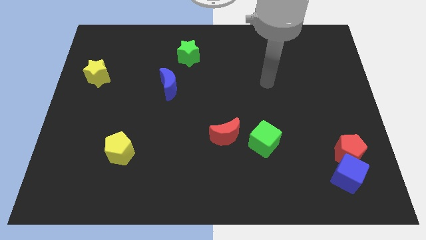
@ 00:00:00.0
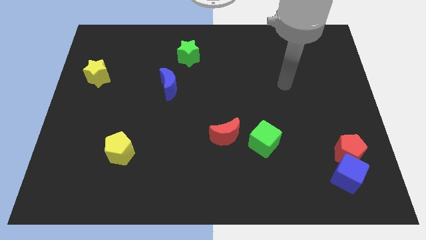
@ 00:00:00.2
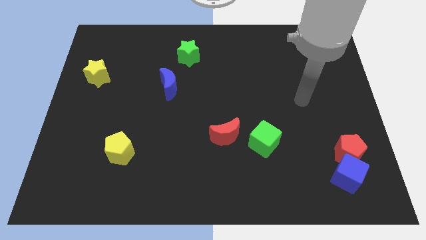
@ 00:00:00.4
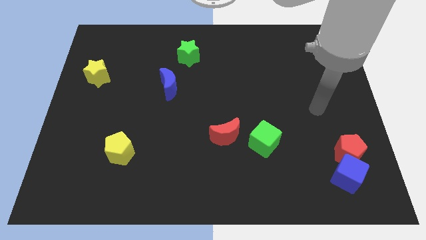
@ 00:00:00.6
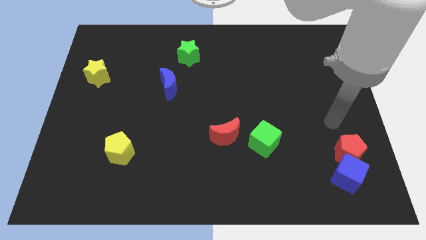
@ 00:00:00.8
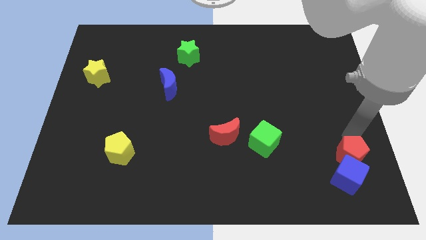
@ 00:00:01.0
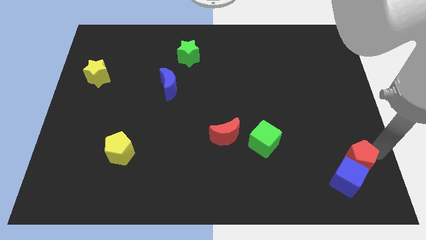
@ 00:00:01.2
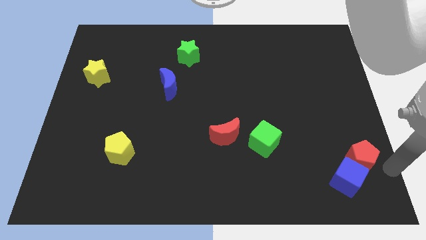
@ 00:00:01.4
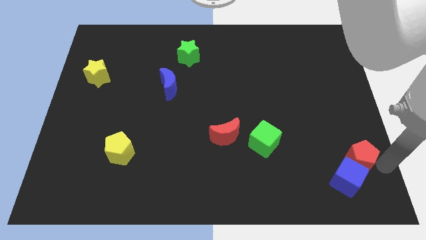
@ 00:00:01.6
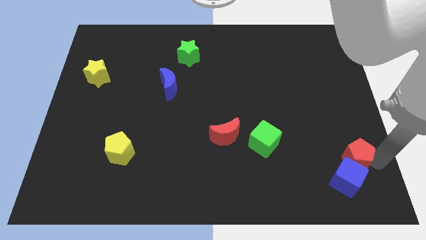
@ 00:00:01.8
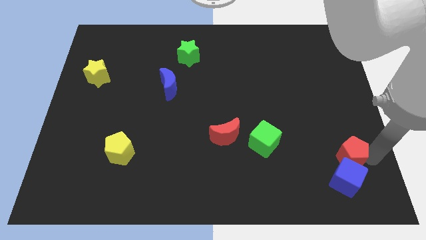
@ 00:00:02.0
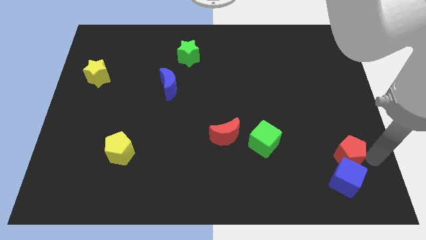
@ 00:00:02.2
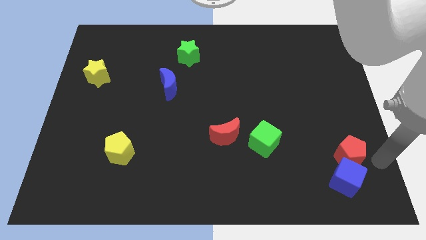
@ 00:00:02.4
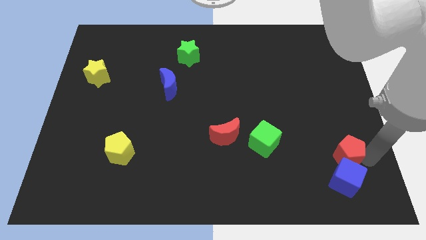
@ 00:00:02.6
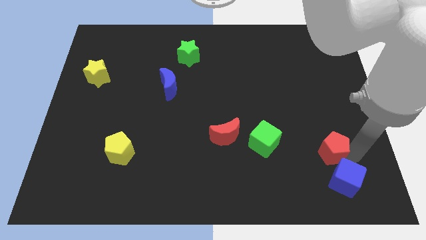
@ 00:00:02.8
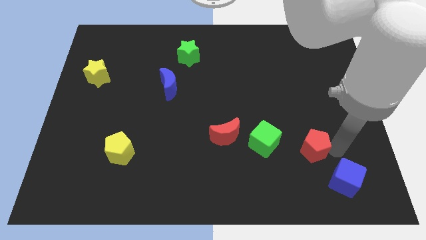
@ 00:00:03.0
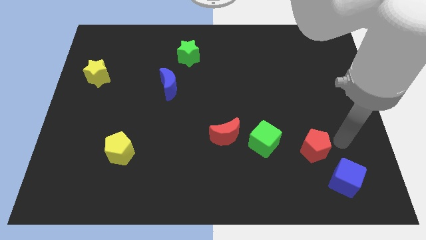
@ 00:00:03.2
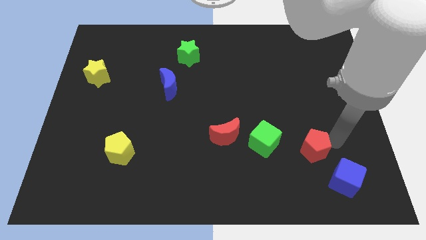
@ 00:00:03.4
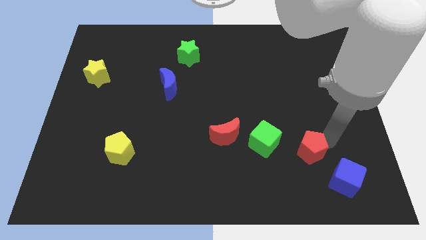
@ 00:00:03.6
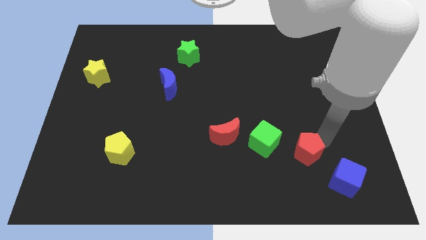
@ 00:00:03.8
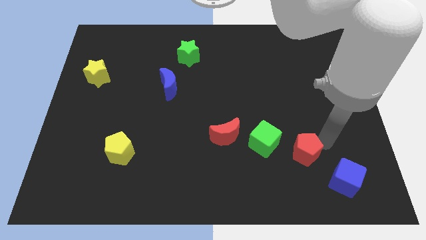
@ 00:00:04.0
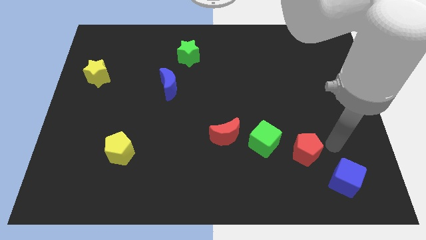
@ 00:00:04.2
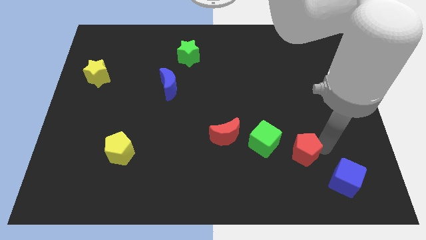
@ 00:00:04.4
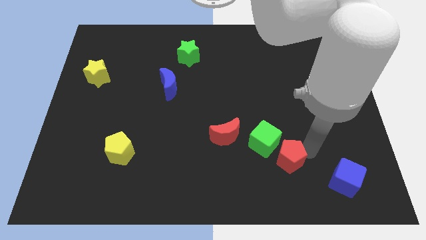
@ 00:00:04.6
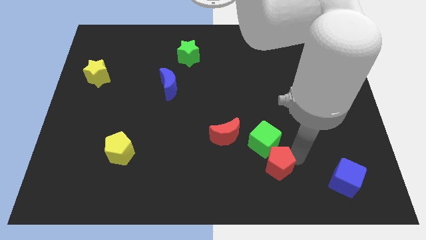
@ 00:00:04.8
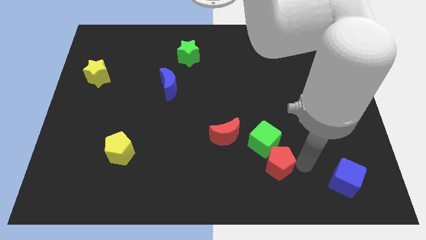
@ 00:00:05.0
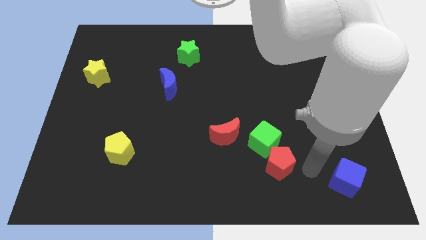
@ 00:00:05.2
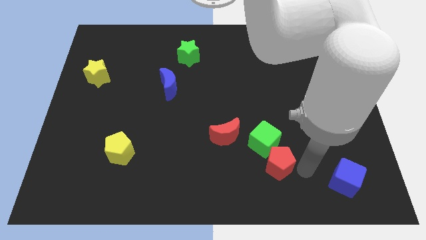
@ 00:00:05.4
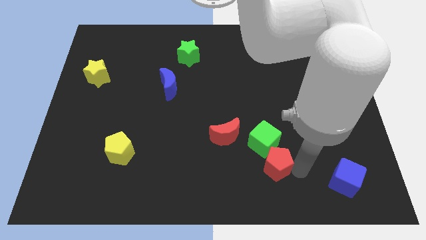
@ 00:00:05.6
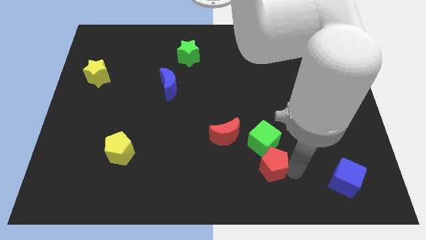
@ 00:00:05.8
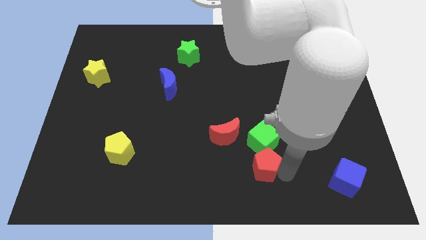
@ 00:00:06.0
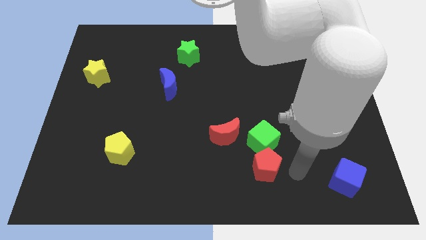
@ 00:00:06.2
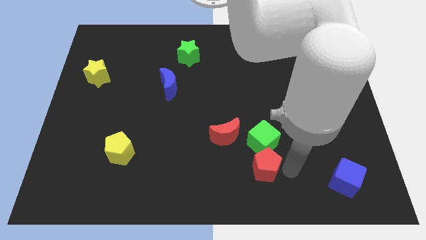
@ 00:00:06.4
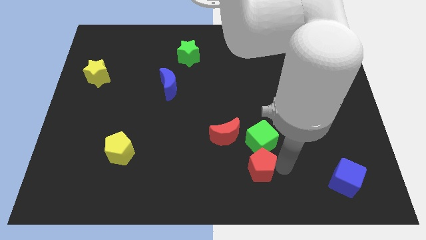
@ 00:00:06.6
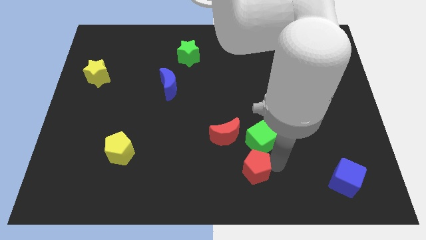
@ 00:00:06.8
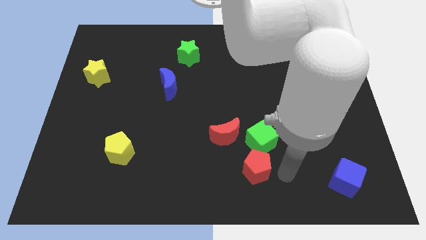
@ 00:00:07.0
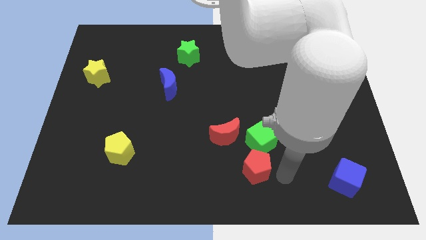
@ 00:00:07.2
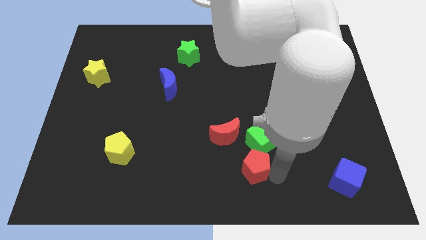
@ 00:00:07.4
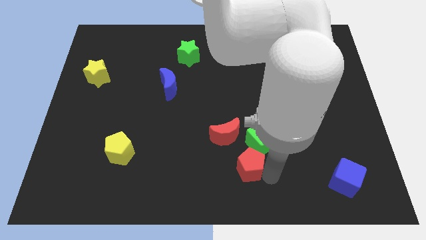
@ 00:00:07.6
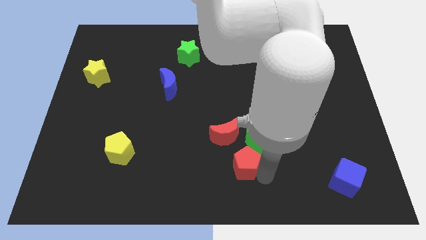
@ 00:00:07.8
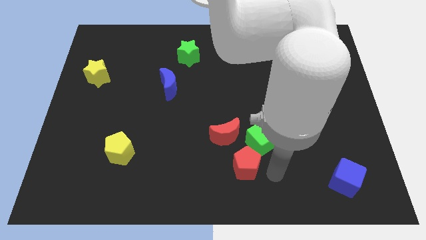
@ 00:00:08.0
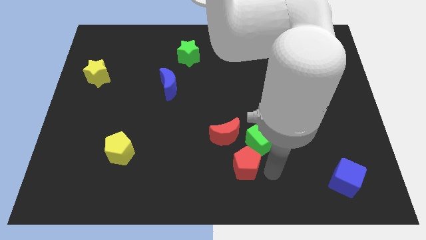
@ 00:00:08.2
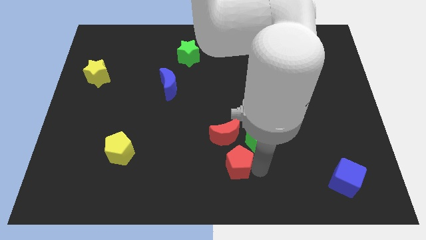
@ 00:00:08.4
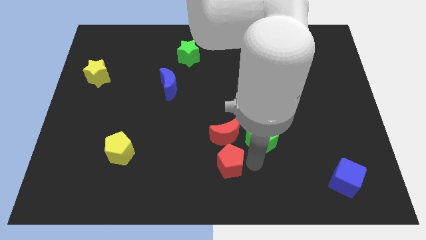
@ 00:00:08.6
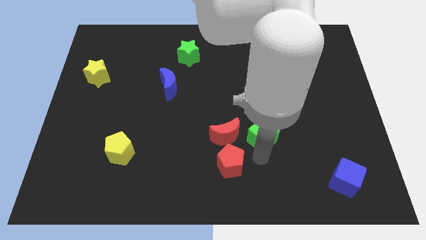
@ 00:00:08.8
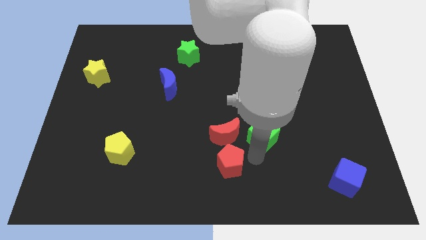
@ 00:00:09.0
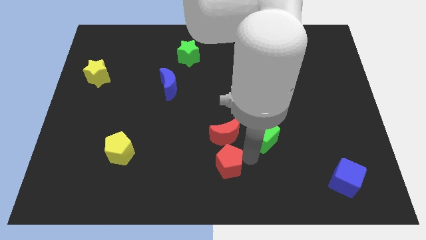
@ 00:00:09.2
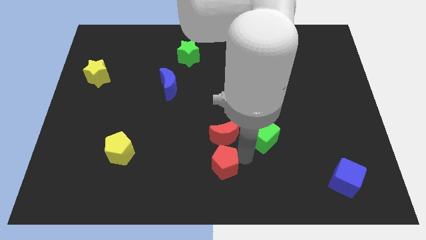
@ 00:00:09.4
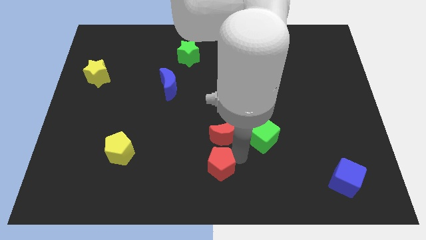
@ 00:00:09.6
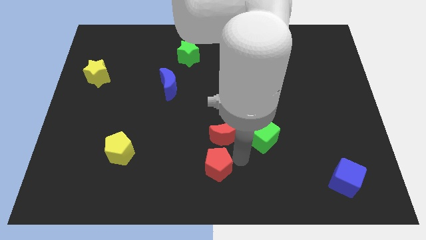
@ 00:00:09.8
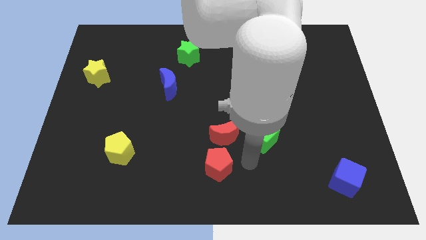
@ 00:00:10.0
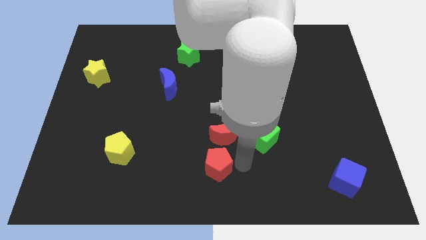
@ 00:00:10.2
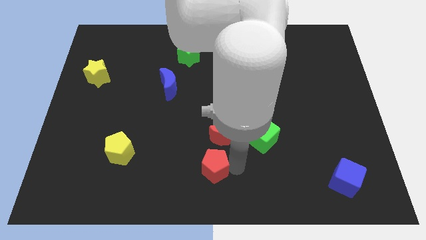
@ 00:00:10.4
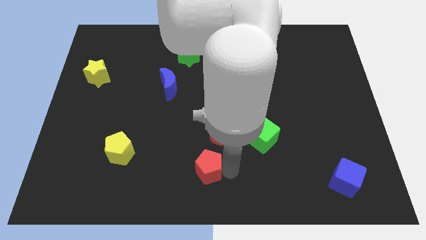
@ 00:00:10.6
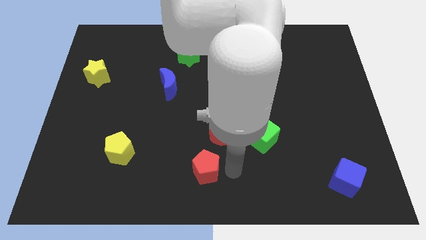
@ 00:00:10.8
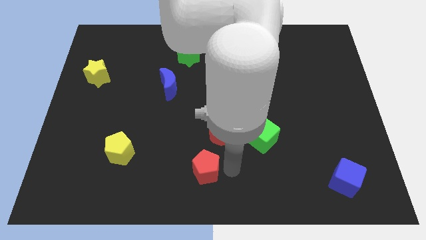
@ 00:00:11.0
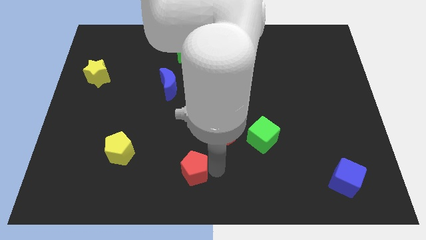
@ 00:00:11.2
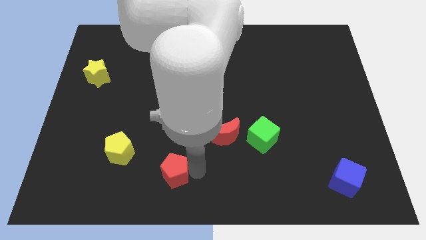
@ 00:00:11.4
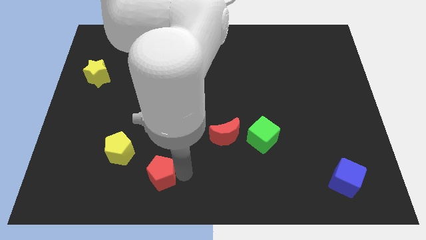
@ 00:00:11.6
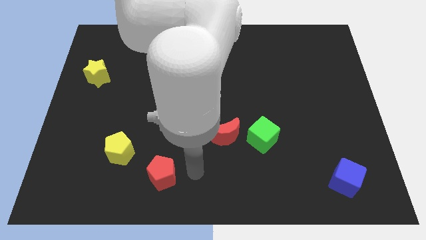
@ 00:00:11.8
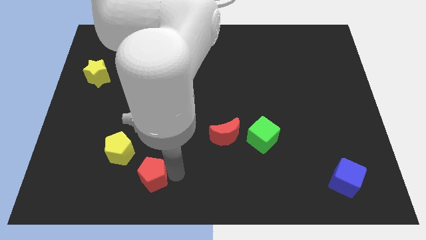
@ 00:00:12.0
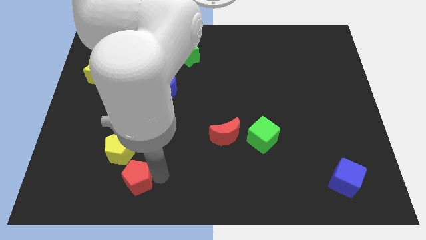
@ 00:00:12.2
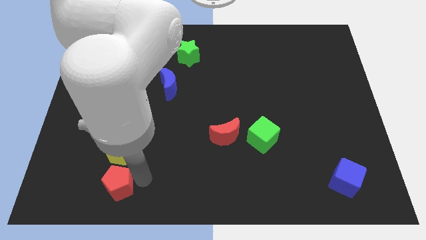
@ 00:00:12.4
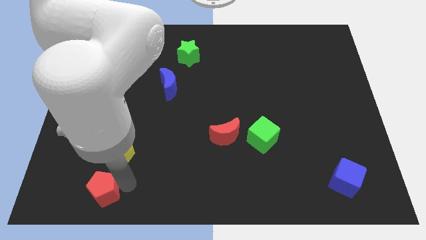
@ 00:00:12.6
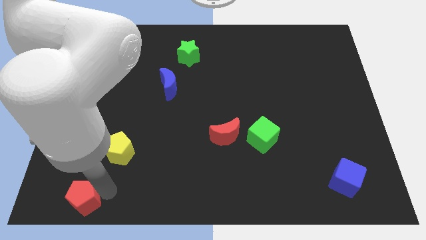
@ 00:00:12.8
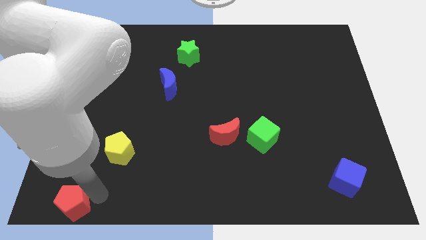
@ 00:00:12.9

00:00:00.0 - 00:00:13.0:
move the red pentagon to the bottom left of the board

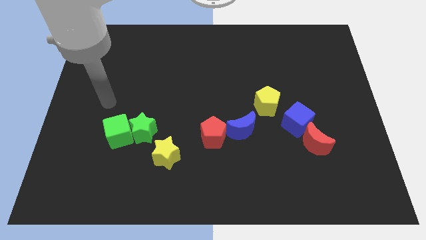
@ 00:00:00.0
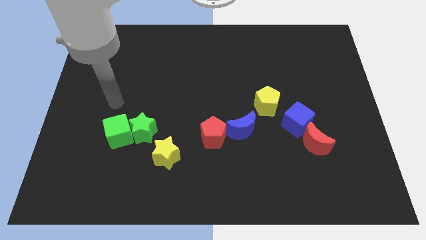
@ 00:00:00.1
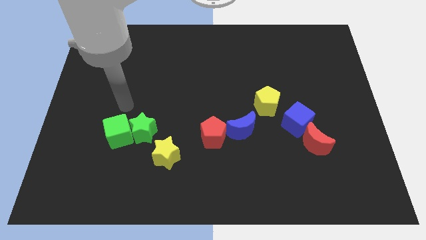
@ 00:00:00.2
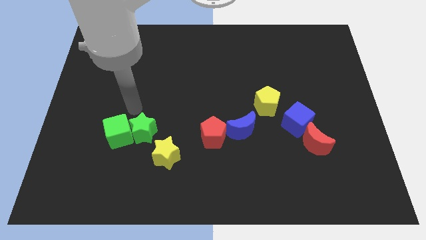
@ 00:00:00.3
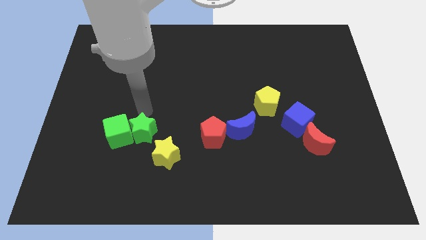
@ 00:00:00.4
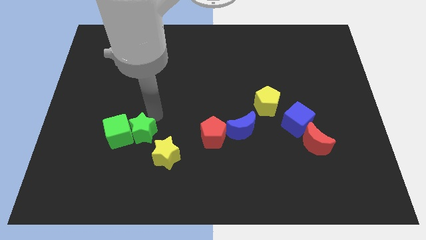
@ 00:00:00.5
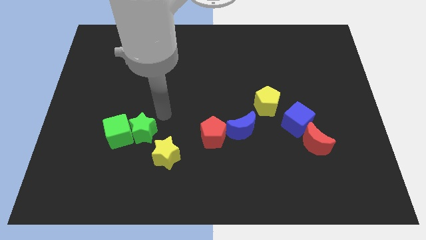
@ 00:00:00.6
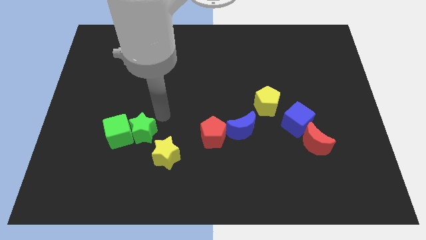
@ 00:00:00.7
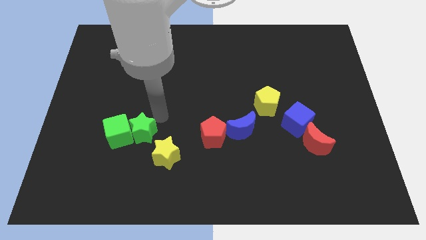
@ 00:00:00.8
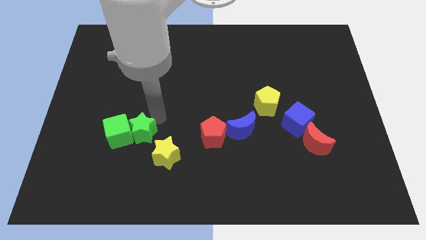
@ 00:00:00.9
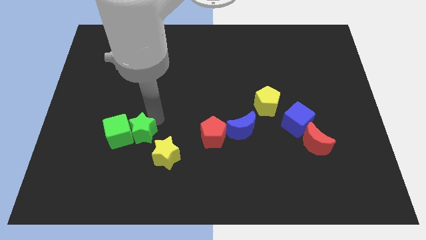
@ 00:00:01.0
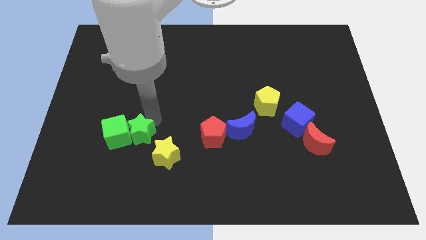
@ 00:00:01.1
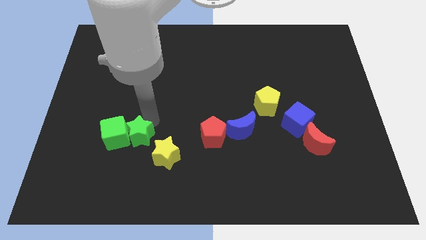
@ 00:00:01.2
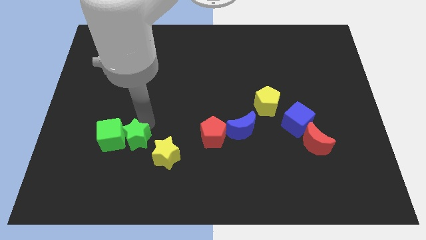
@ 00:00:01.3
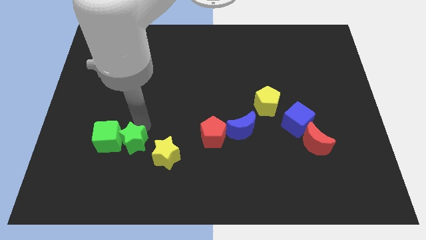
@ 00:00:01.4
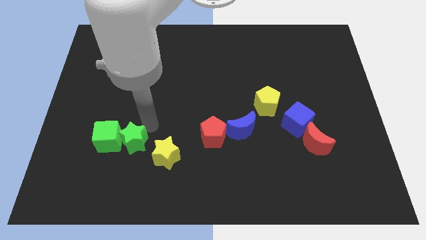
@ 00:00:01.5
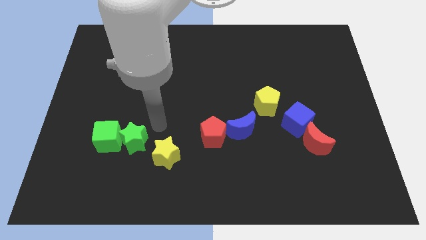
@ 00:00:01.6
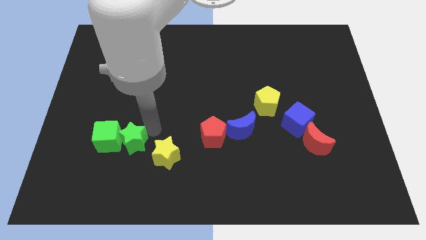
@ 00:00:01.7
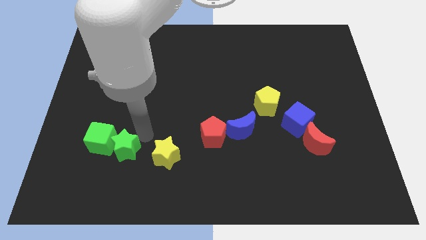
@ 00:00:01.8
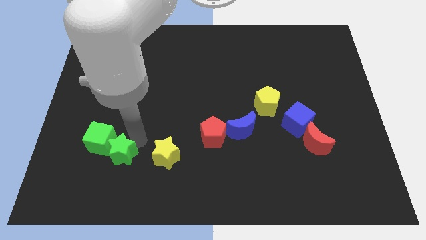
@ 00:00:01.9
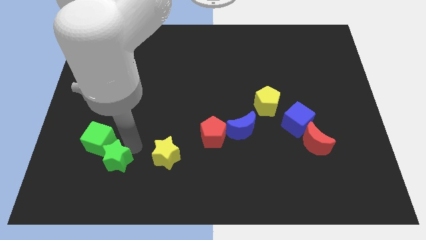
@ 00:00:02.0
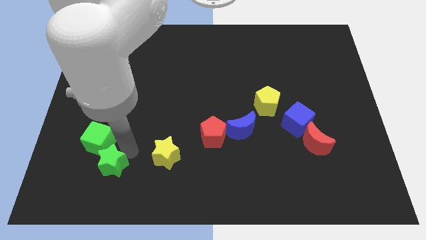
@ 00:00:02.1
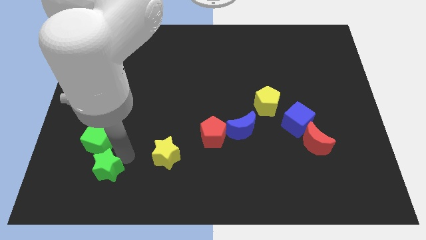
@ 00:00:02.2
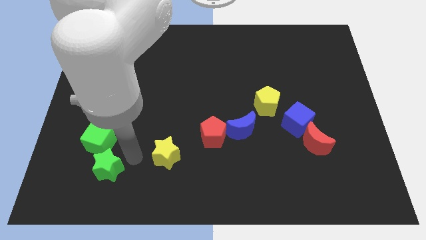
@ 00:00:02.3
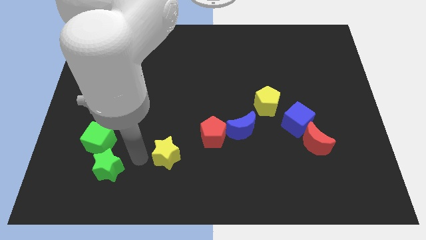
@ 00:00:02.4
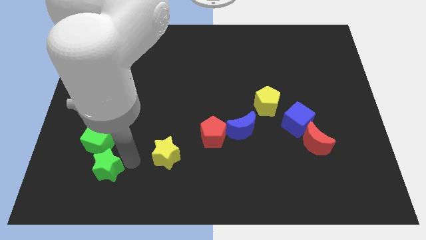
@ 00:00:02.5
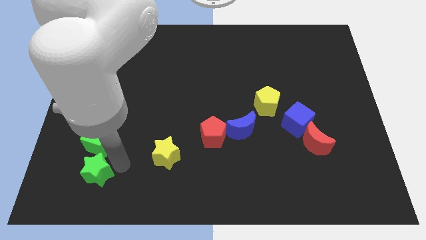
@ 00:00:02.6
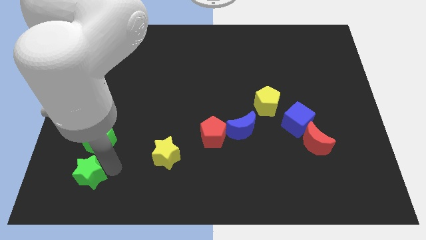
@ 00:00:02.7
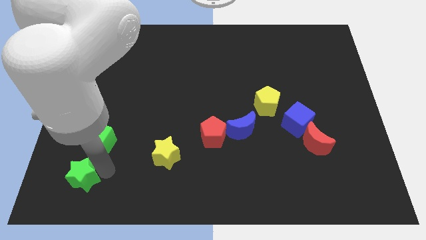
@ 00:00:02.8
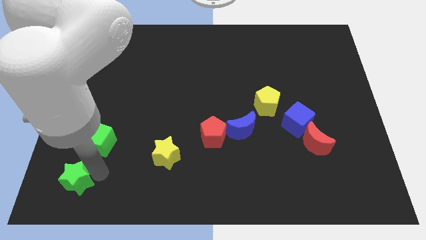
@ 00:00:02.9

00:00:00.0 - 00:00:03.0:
push the green star to the bottom left of the board
